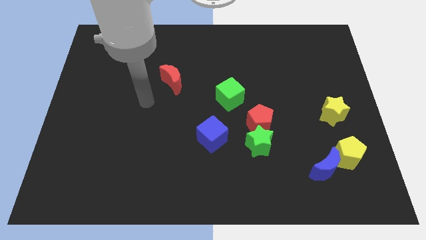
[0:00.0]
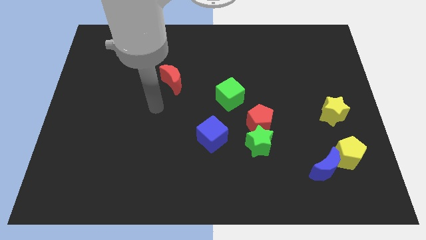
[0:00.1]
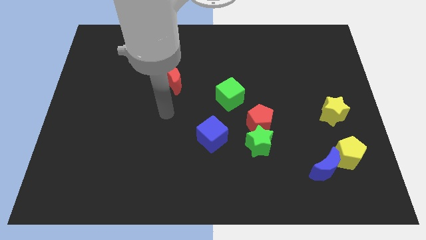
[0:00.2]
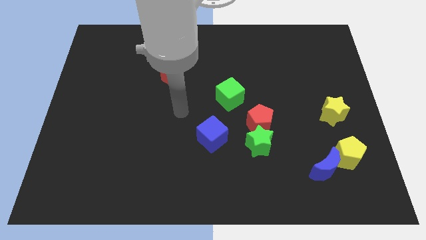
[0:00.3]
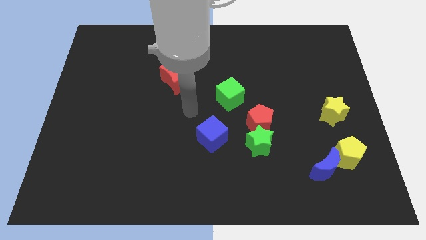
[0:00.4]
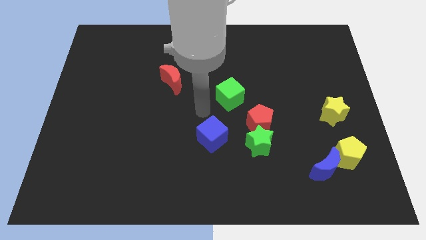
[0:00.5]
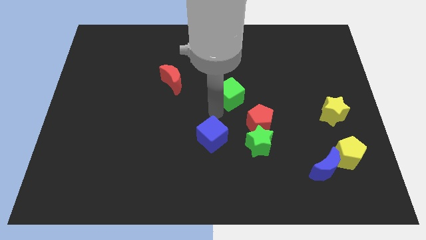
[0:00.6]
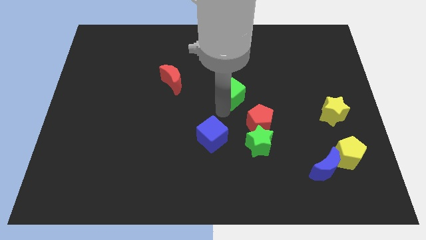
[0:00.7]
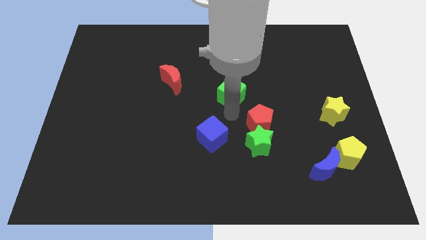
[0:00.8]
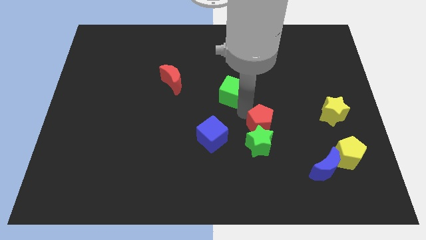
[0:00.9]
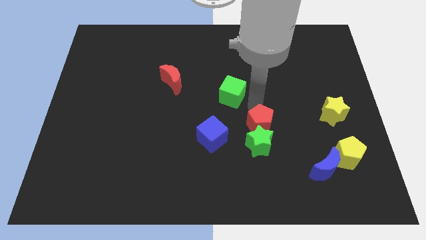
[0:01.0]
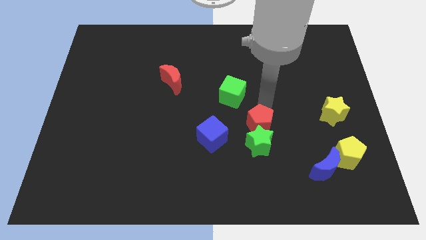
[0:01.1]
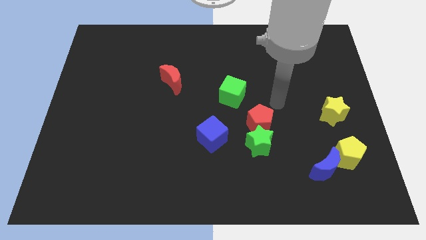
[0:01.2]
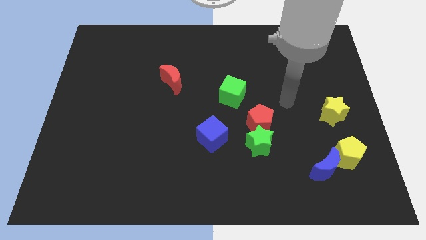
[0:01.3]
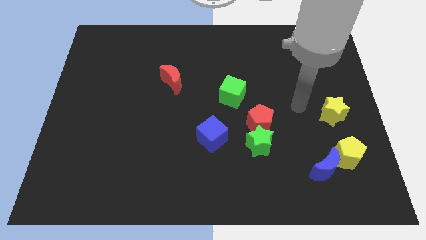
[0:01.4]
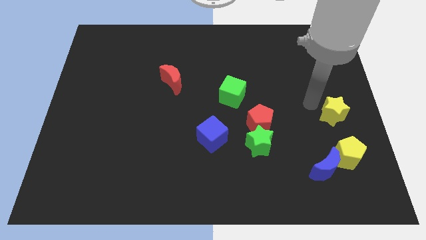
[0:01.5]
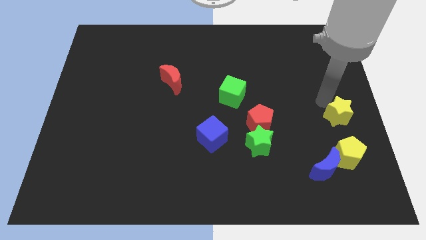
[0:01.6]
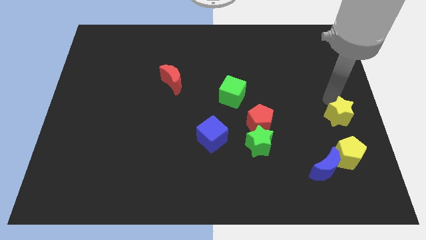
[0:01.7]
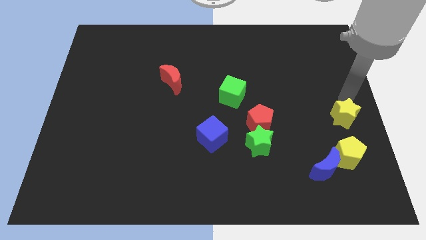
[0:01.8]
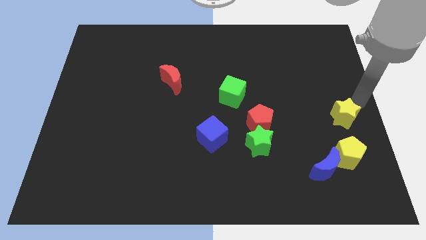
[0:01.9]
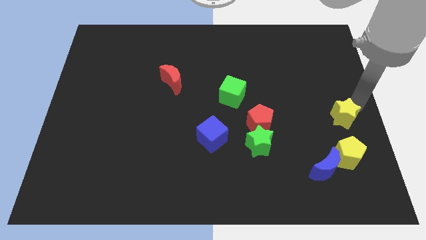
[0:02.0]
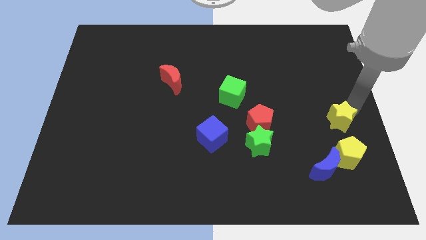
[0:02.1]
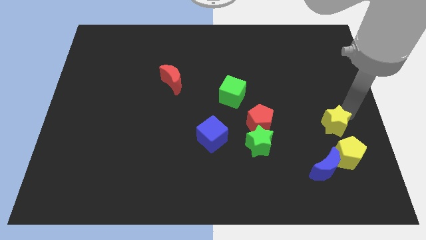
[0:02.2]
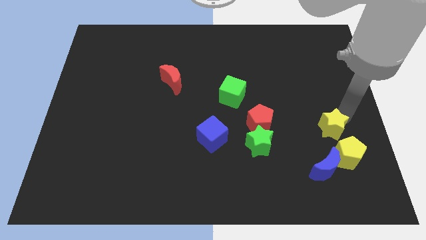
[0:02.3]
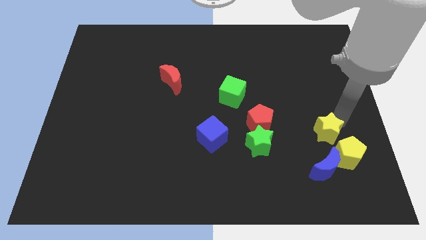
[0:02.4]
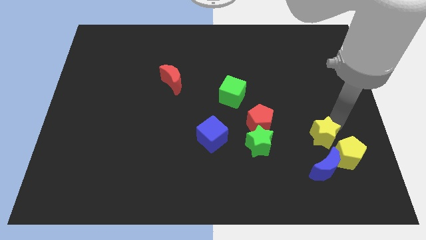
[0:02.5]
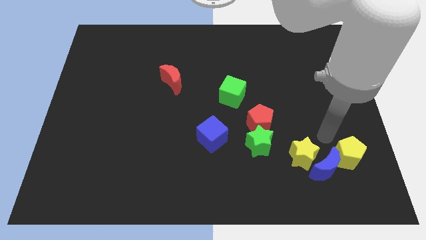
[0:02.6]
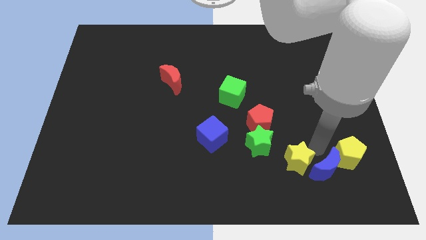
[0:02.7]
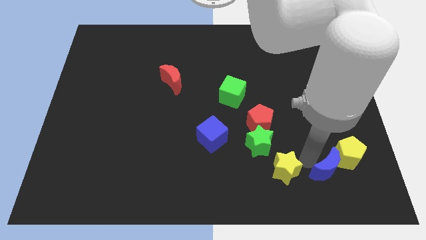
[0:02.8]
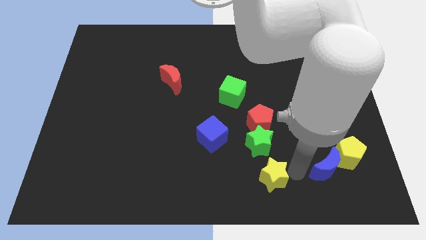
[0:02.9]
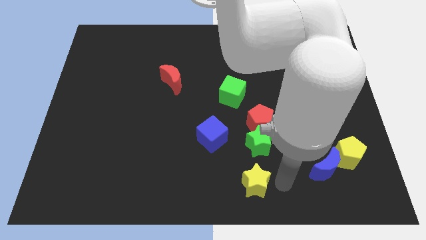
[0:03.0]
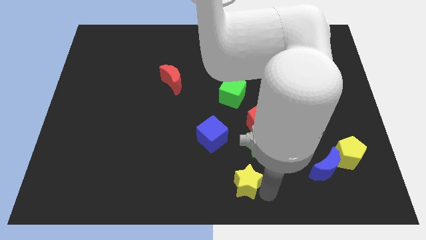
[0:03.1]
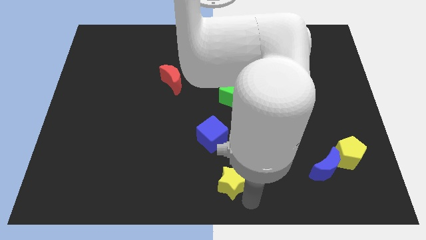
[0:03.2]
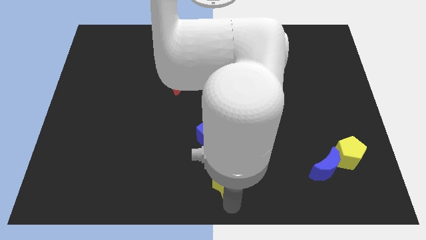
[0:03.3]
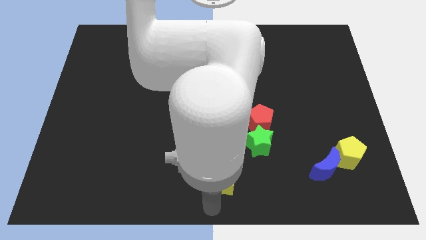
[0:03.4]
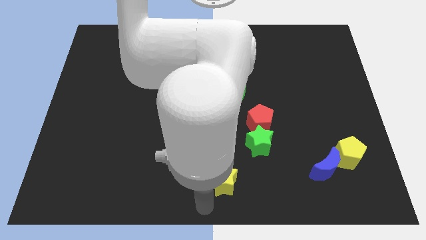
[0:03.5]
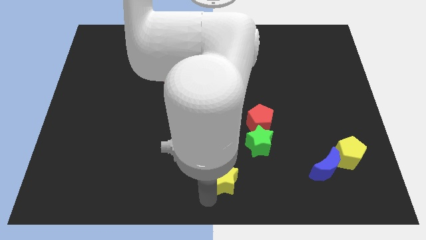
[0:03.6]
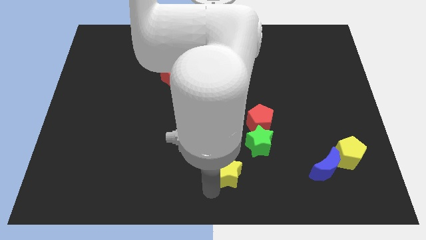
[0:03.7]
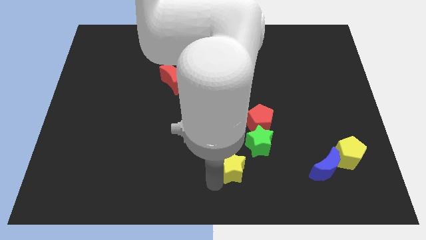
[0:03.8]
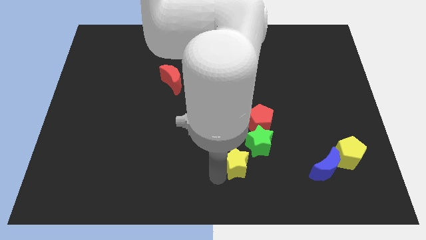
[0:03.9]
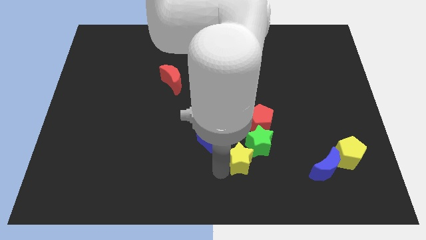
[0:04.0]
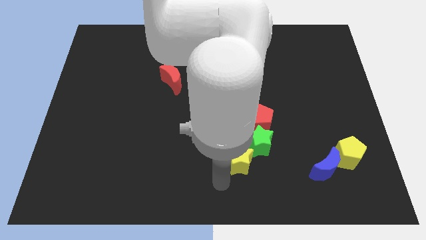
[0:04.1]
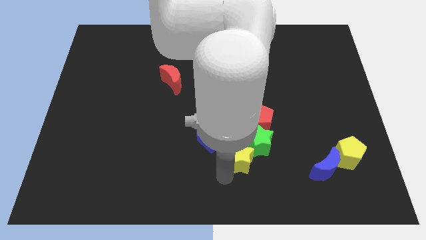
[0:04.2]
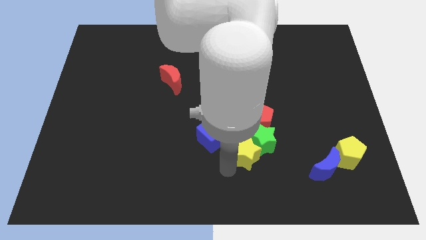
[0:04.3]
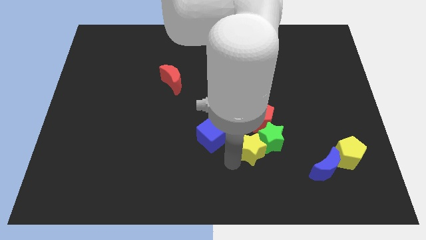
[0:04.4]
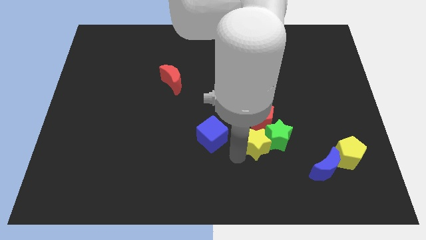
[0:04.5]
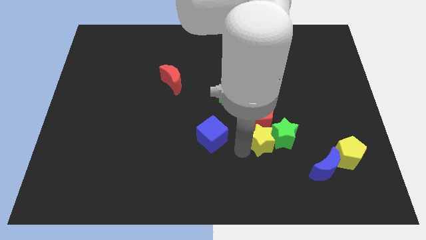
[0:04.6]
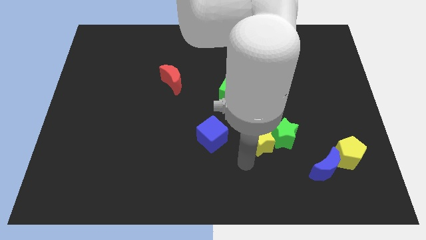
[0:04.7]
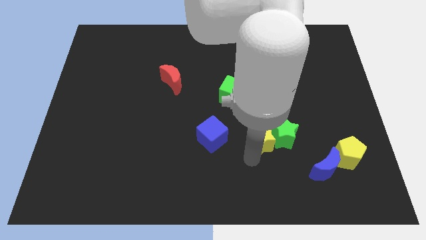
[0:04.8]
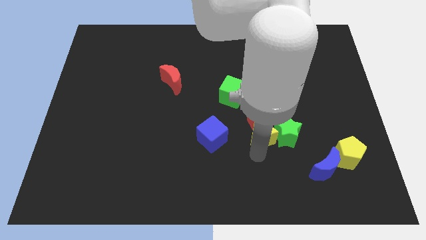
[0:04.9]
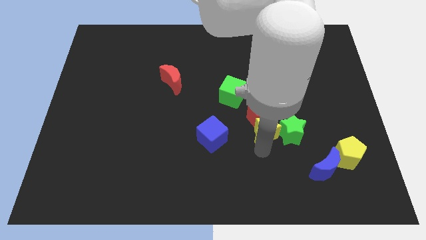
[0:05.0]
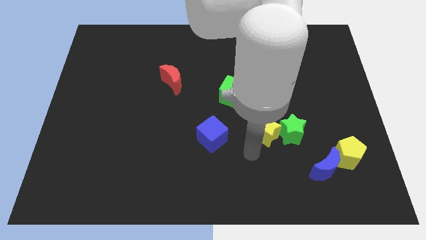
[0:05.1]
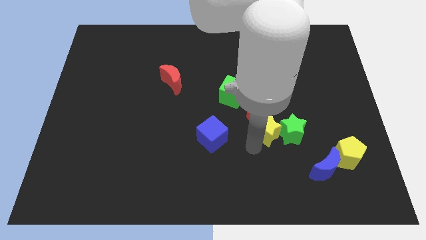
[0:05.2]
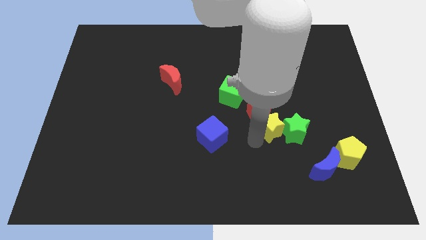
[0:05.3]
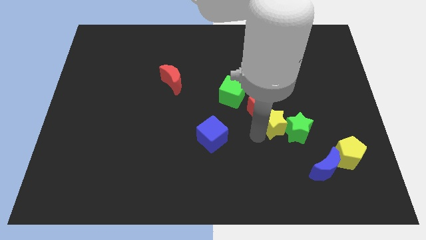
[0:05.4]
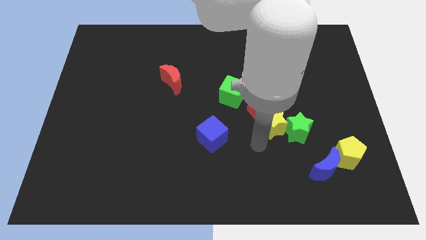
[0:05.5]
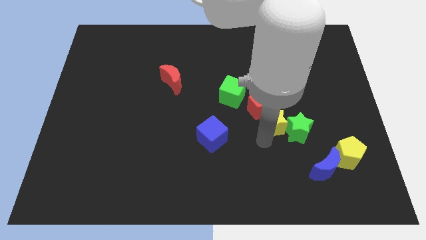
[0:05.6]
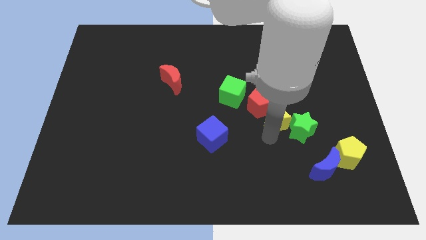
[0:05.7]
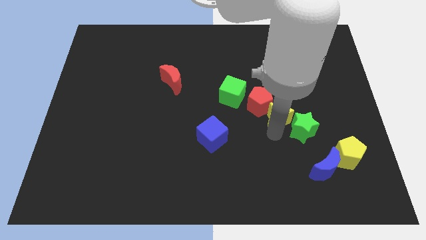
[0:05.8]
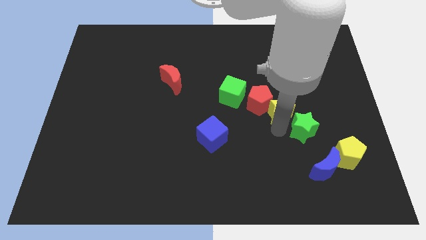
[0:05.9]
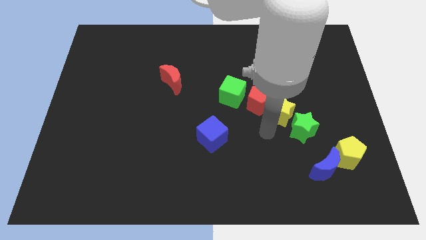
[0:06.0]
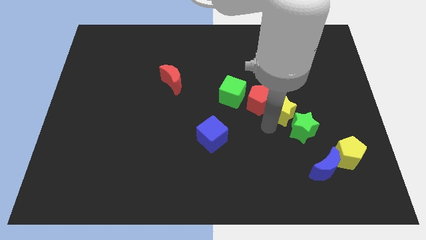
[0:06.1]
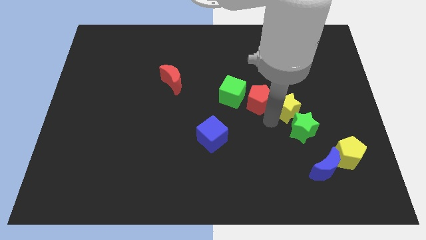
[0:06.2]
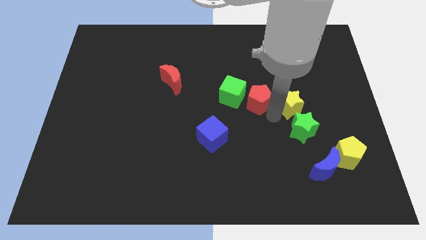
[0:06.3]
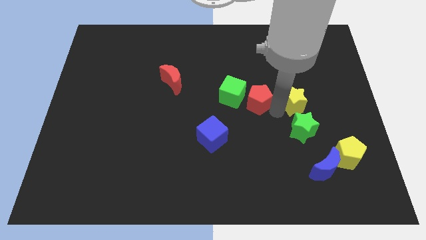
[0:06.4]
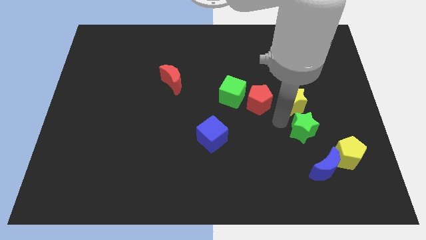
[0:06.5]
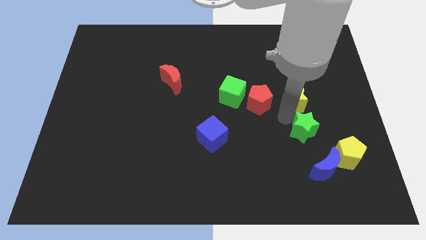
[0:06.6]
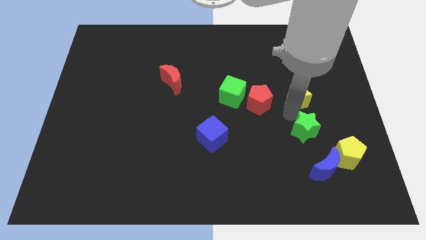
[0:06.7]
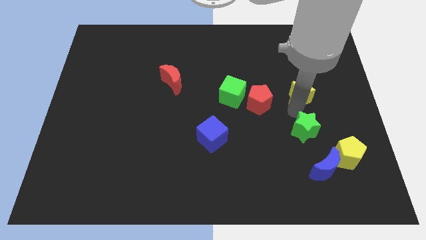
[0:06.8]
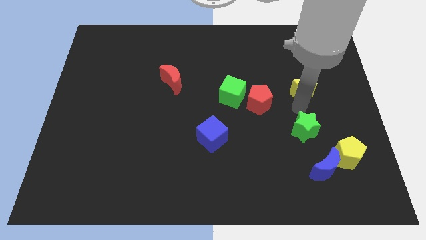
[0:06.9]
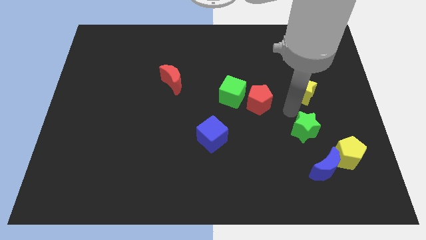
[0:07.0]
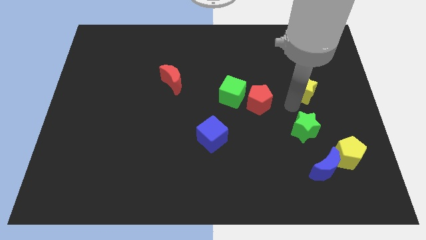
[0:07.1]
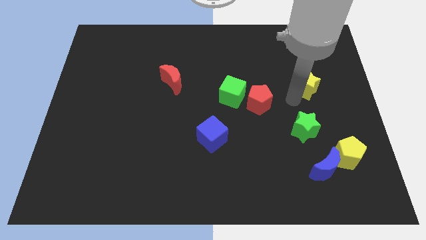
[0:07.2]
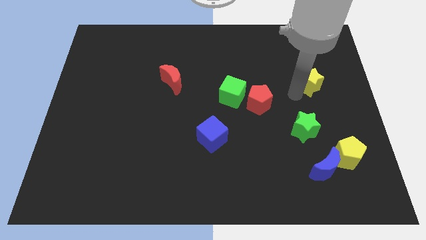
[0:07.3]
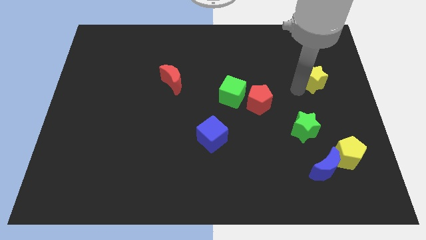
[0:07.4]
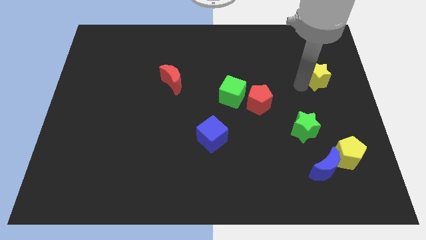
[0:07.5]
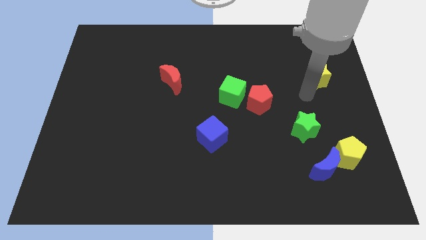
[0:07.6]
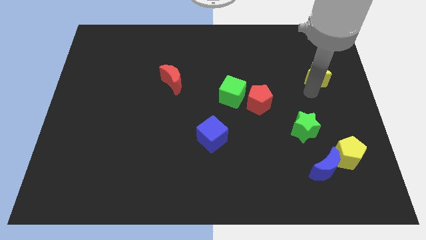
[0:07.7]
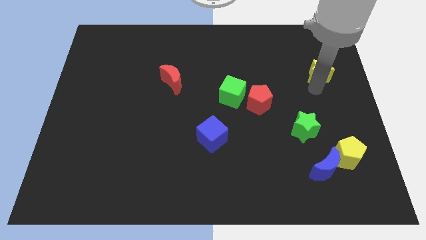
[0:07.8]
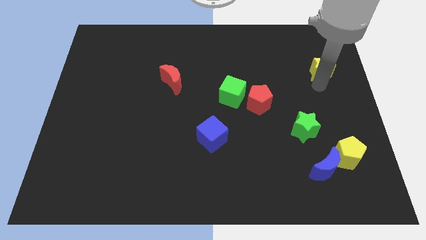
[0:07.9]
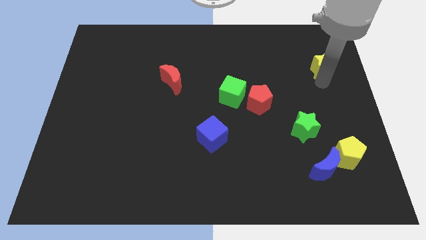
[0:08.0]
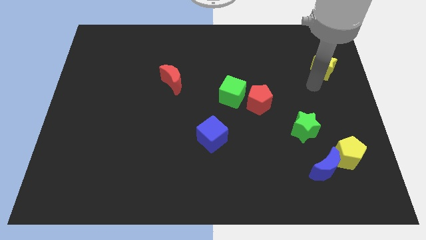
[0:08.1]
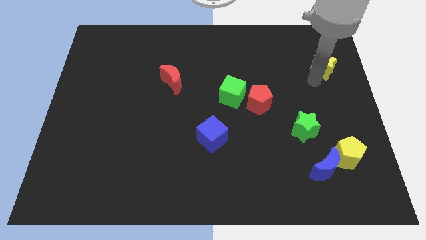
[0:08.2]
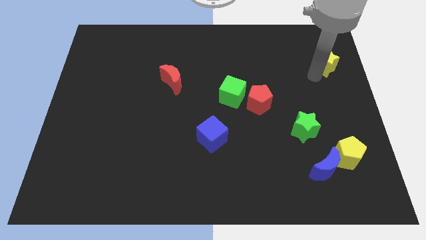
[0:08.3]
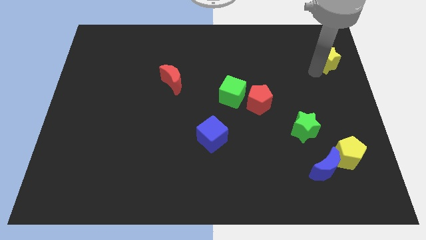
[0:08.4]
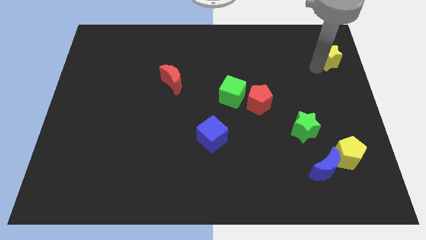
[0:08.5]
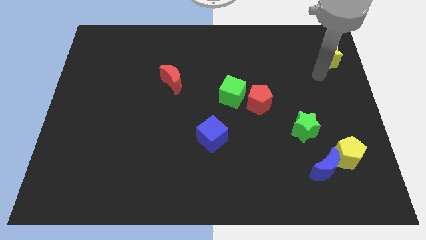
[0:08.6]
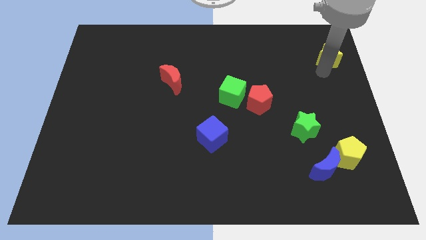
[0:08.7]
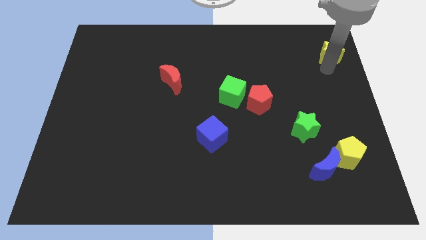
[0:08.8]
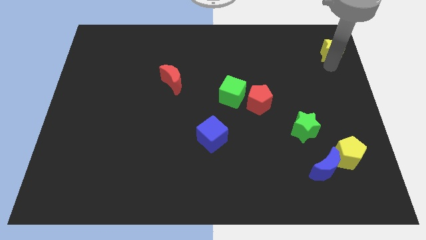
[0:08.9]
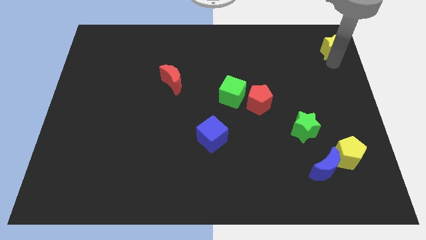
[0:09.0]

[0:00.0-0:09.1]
slide the yellow star to the top right
